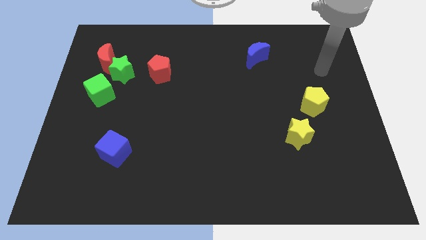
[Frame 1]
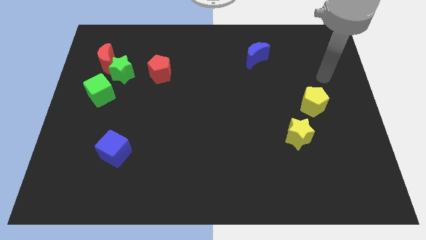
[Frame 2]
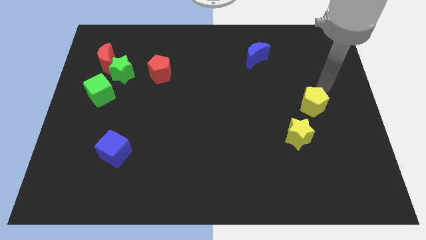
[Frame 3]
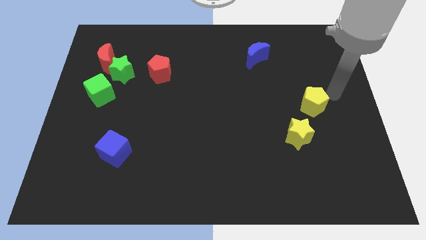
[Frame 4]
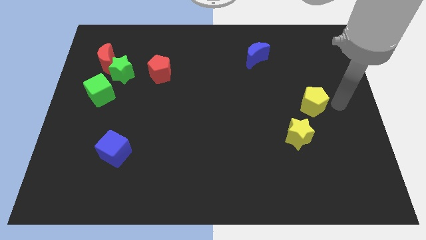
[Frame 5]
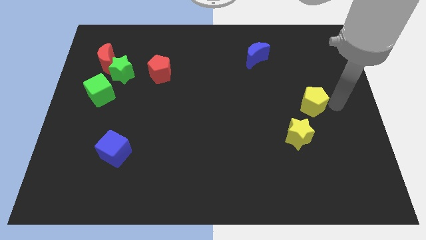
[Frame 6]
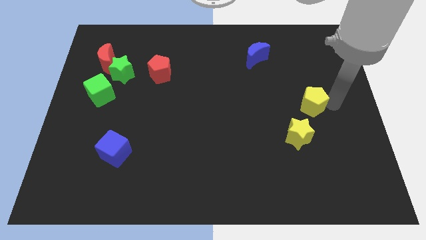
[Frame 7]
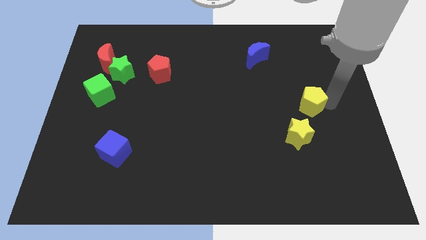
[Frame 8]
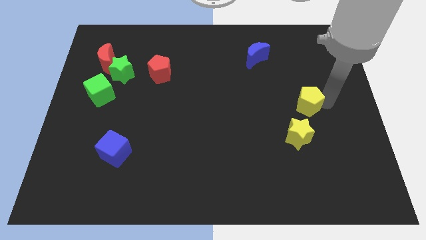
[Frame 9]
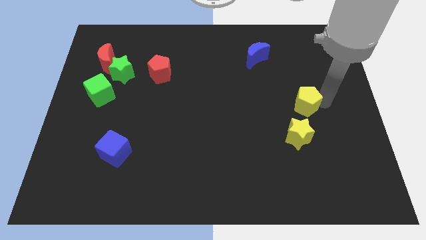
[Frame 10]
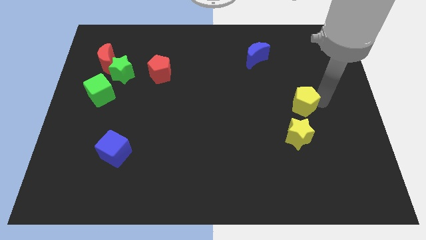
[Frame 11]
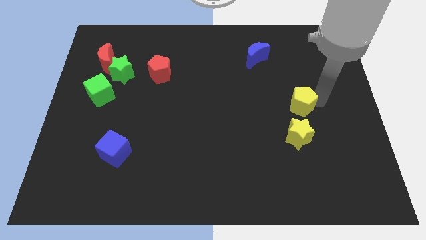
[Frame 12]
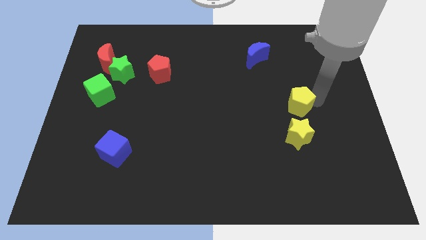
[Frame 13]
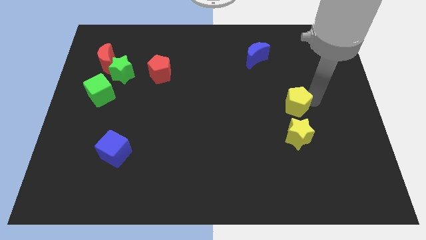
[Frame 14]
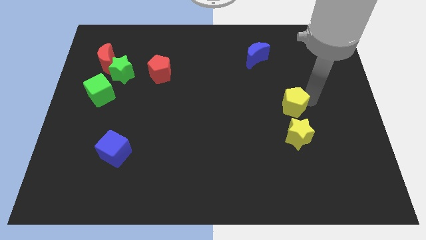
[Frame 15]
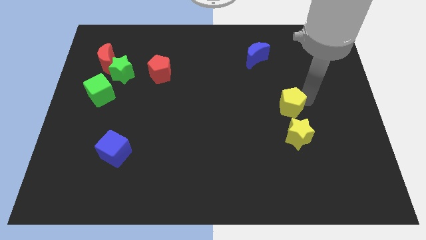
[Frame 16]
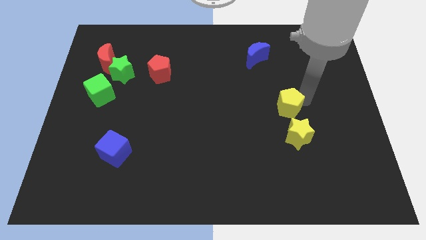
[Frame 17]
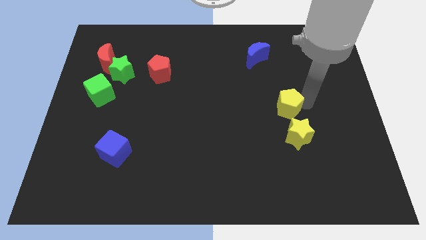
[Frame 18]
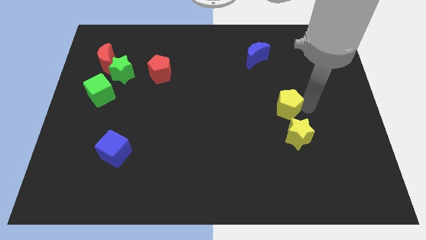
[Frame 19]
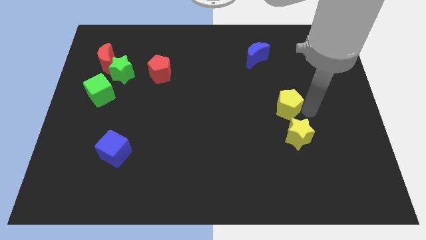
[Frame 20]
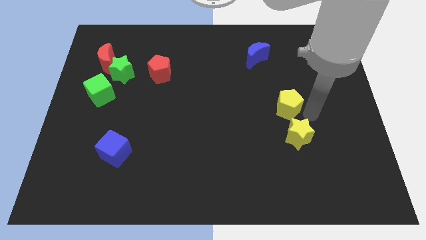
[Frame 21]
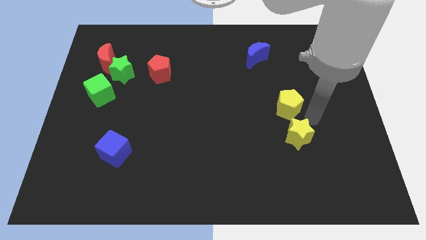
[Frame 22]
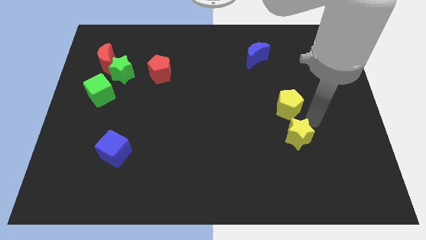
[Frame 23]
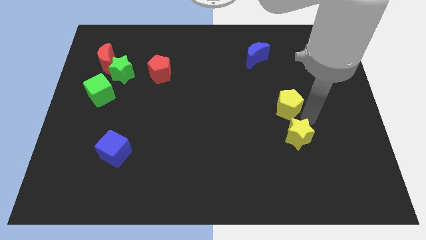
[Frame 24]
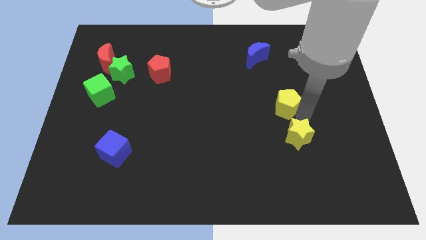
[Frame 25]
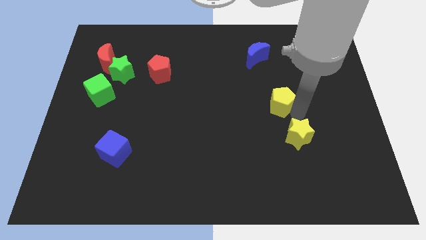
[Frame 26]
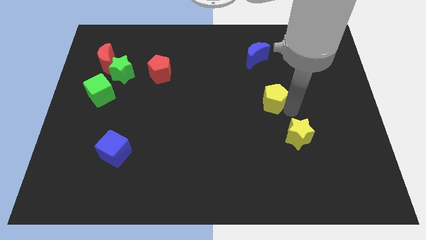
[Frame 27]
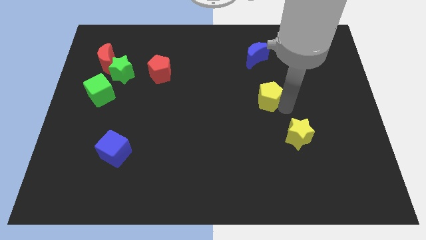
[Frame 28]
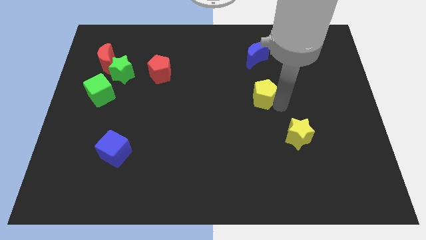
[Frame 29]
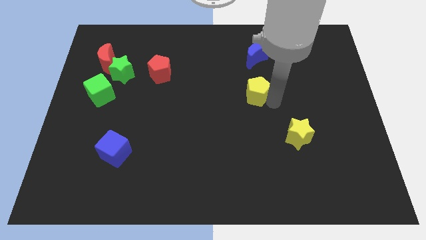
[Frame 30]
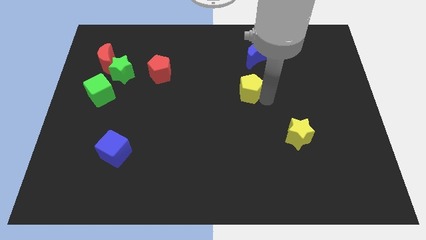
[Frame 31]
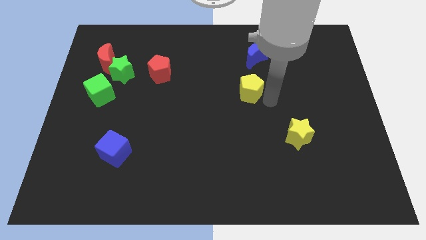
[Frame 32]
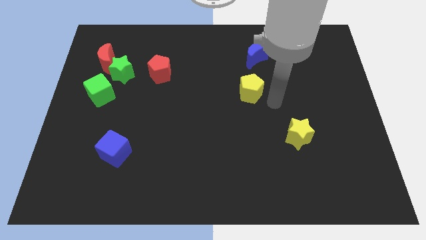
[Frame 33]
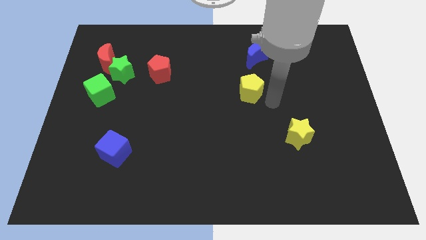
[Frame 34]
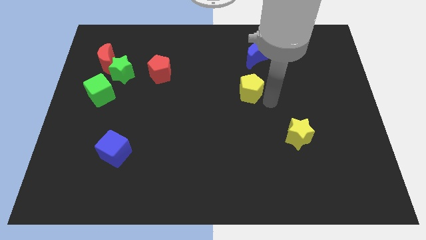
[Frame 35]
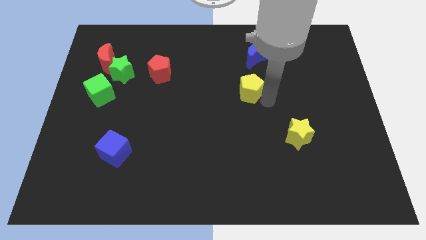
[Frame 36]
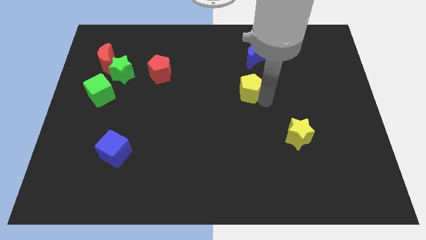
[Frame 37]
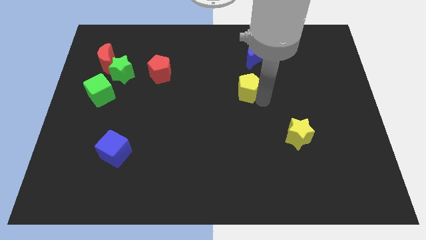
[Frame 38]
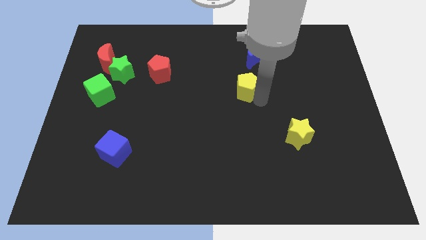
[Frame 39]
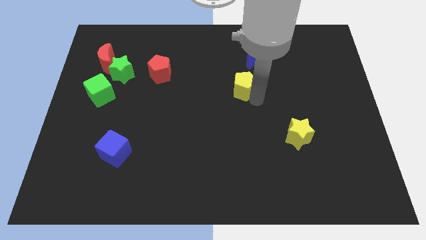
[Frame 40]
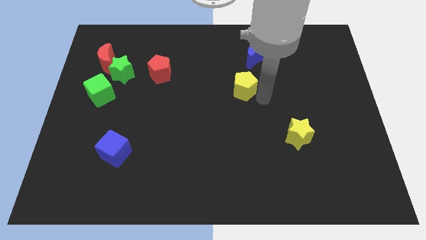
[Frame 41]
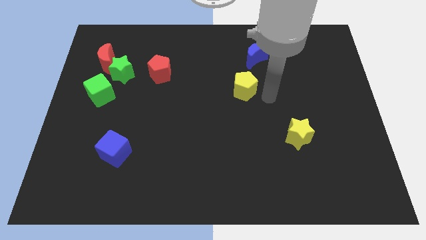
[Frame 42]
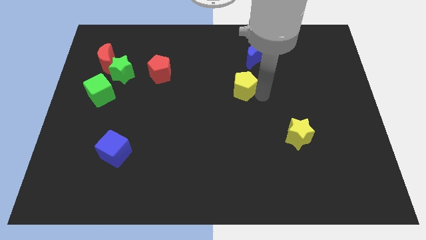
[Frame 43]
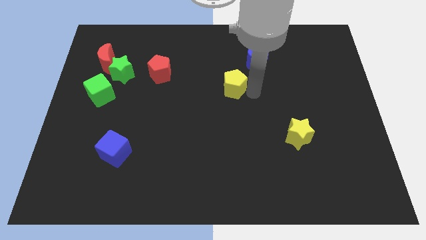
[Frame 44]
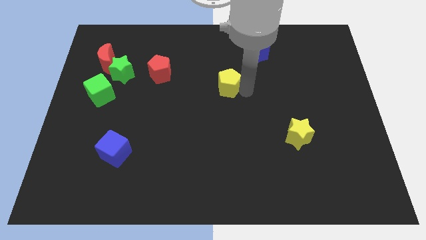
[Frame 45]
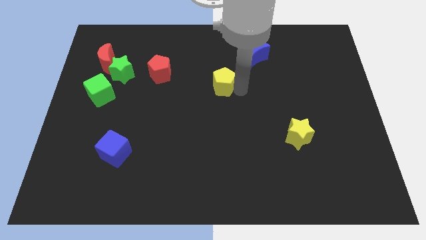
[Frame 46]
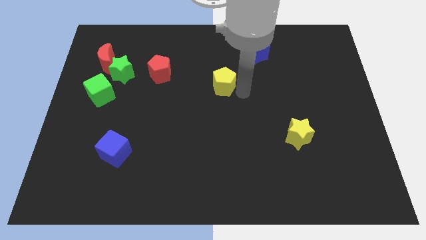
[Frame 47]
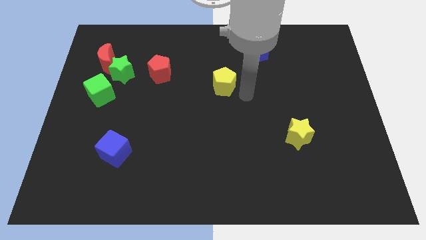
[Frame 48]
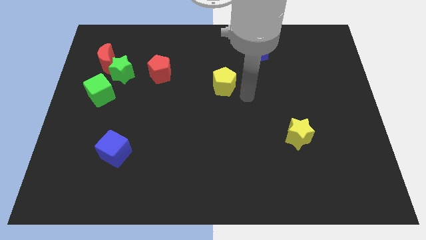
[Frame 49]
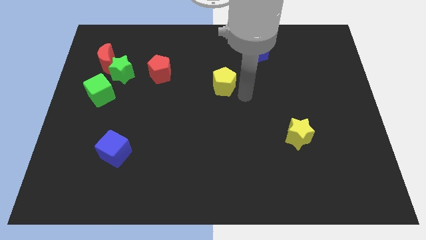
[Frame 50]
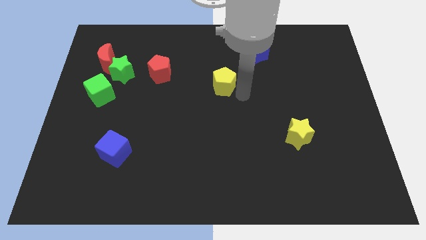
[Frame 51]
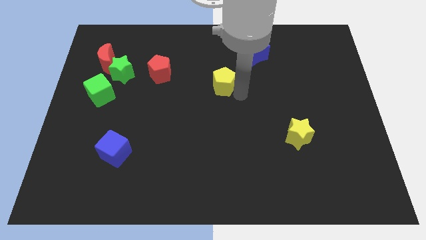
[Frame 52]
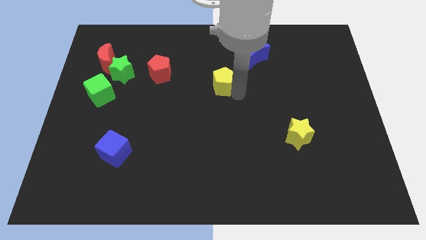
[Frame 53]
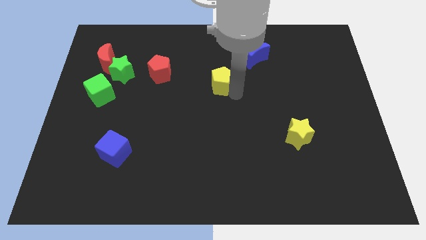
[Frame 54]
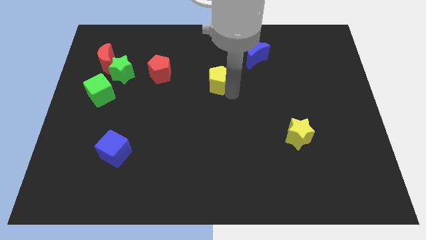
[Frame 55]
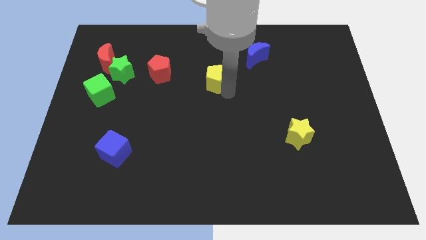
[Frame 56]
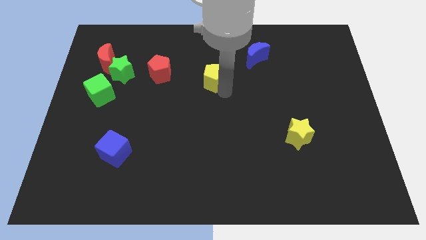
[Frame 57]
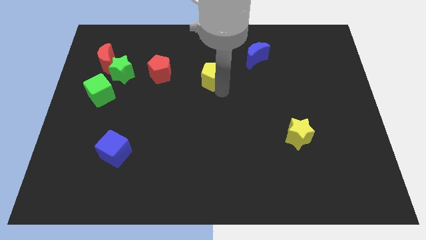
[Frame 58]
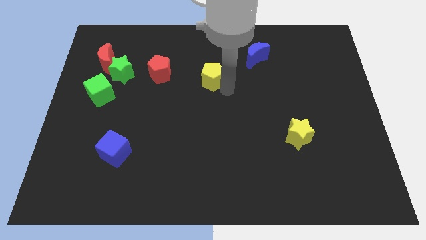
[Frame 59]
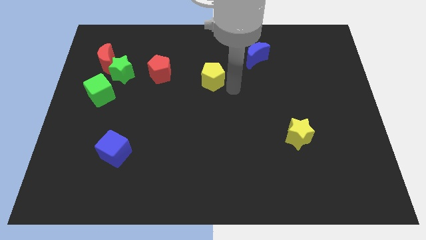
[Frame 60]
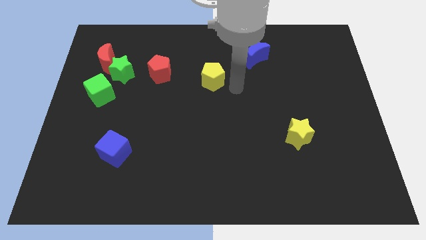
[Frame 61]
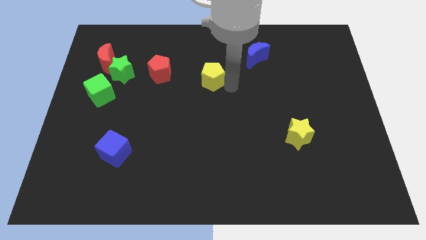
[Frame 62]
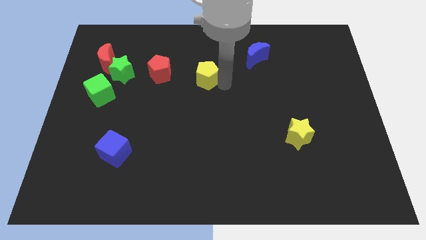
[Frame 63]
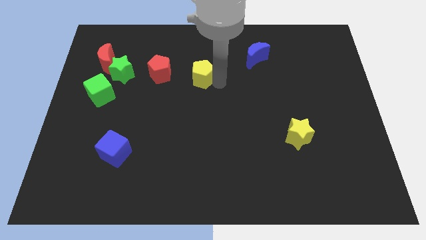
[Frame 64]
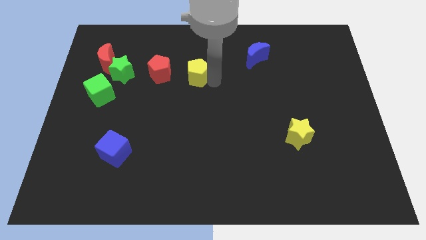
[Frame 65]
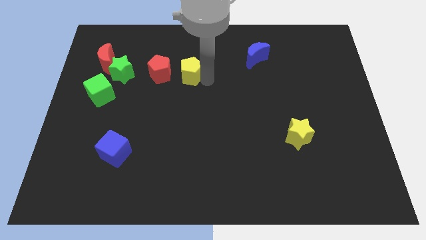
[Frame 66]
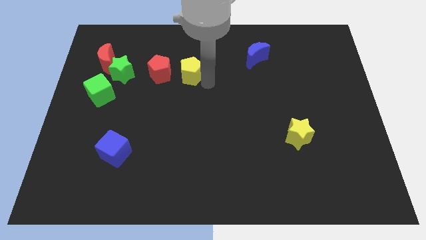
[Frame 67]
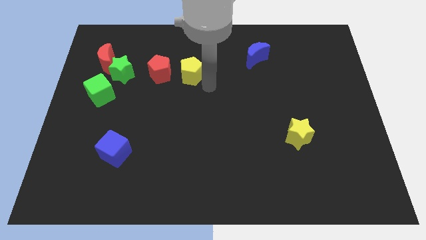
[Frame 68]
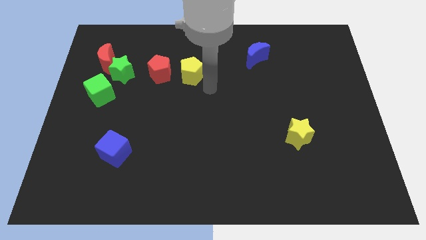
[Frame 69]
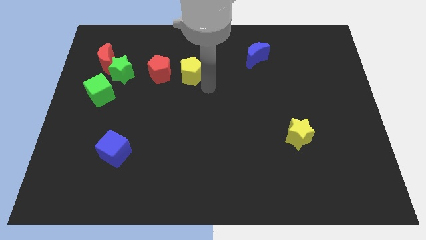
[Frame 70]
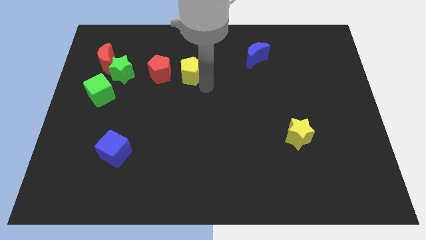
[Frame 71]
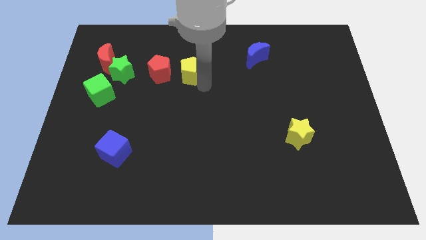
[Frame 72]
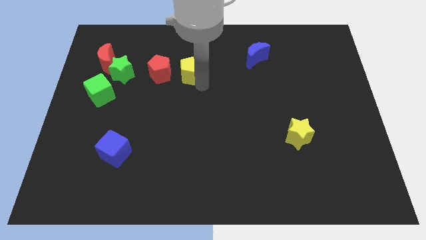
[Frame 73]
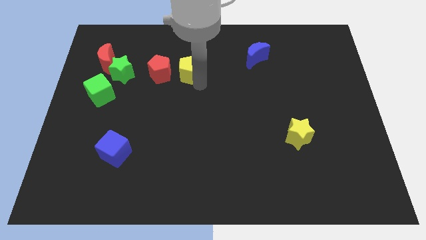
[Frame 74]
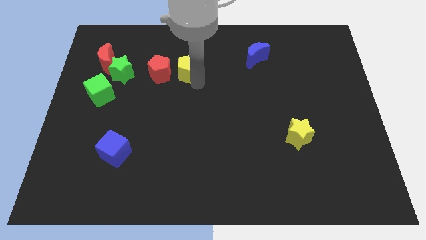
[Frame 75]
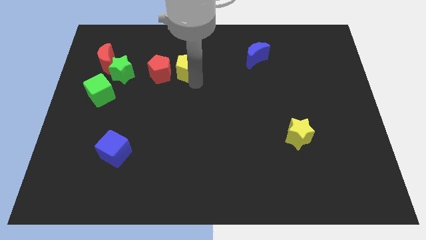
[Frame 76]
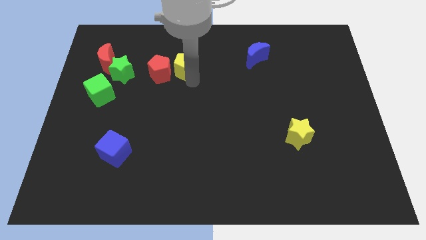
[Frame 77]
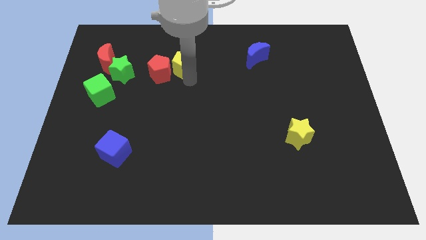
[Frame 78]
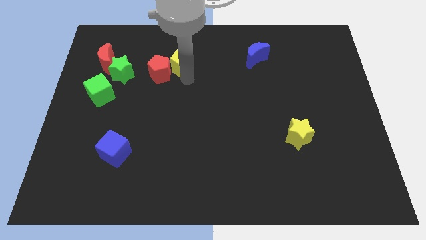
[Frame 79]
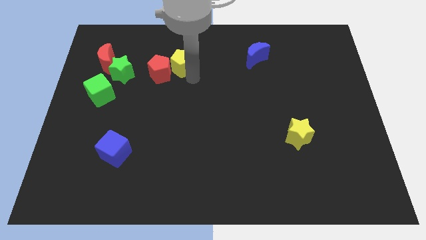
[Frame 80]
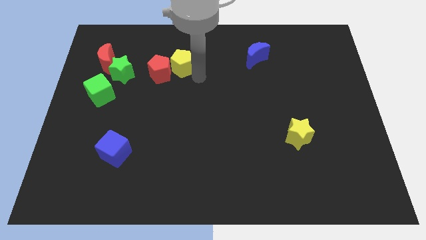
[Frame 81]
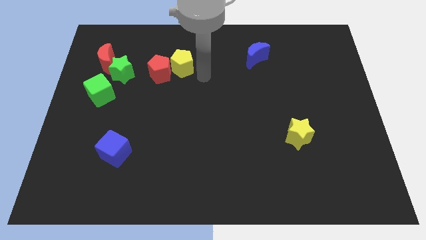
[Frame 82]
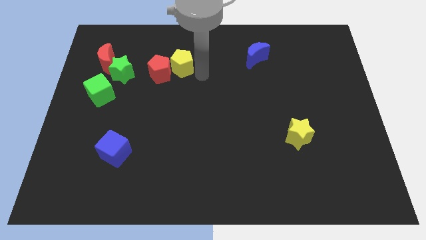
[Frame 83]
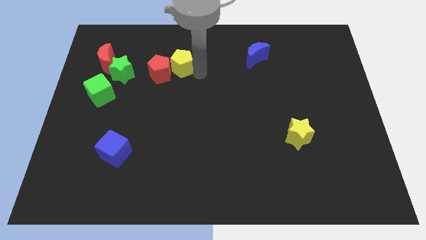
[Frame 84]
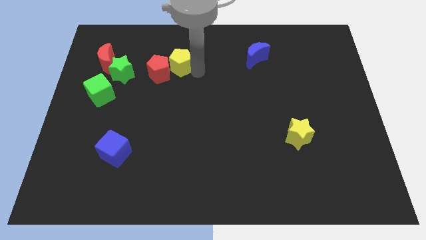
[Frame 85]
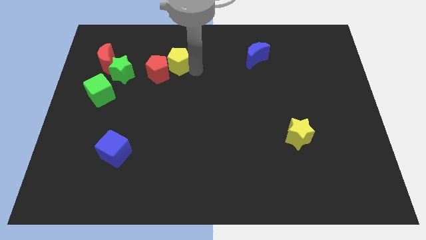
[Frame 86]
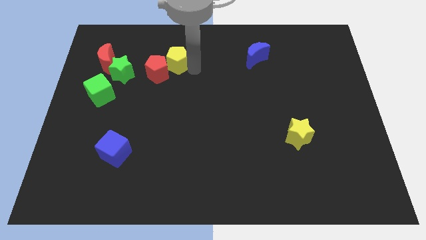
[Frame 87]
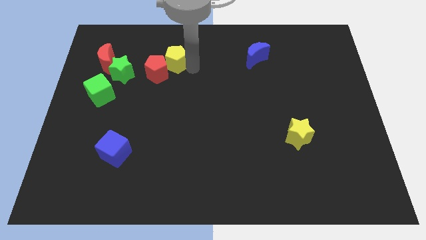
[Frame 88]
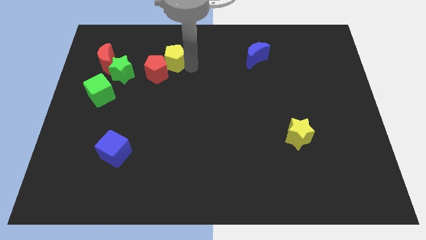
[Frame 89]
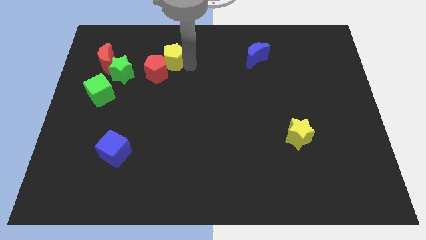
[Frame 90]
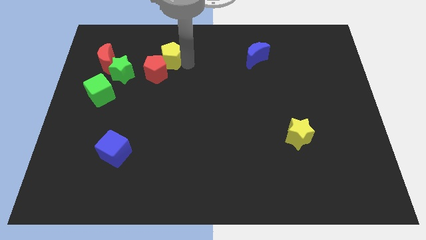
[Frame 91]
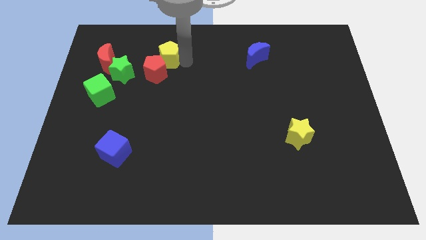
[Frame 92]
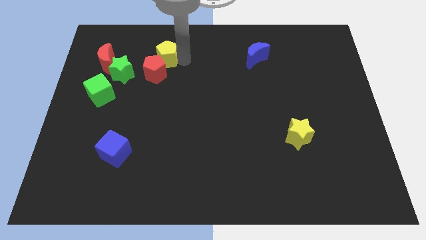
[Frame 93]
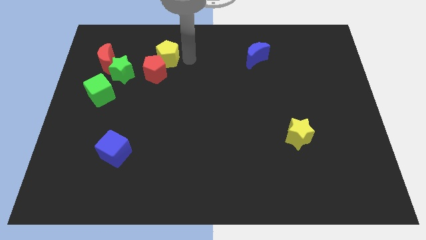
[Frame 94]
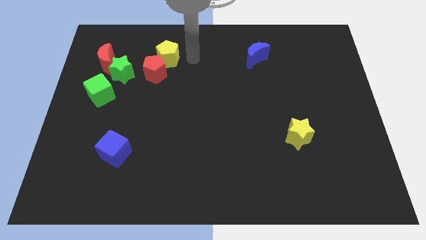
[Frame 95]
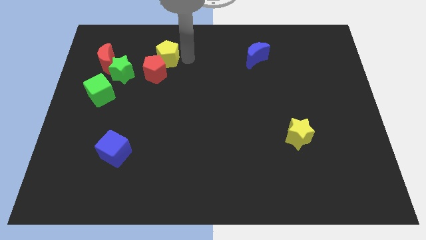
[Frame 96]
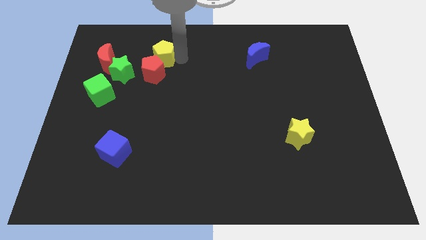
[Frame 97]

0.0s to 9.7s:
push the yellow pentagon to the top right side of the green star
